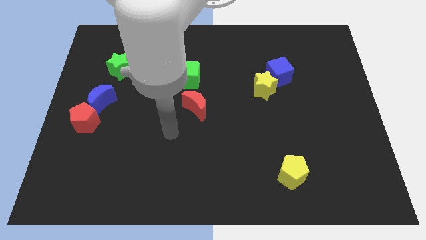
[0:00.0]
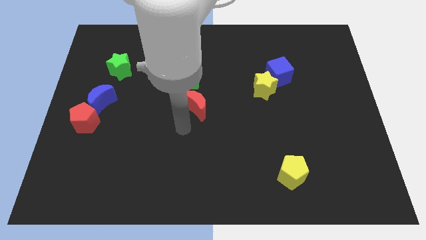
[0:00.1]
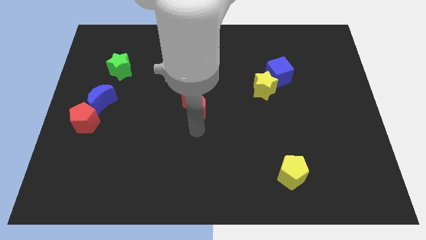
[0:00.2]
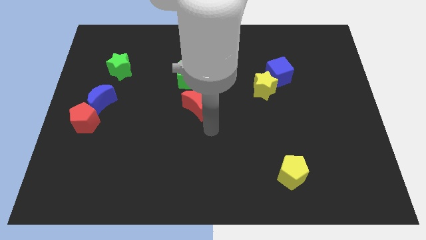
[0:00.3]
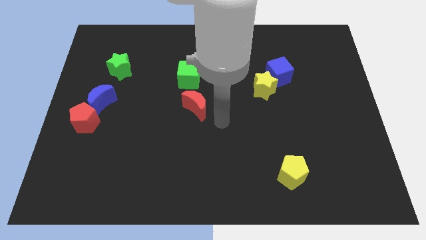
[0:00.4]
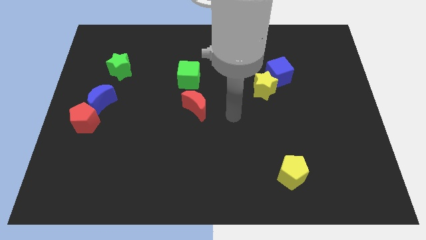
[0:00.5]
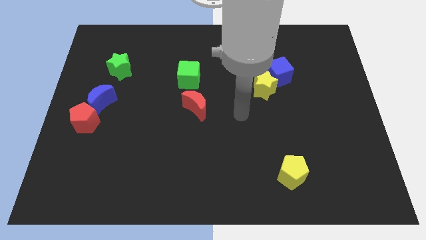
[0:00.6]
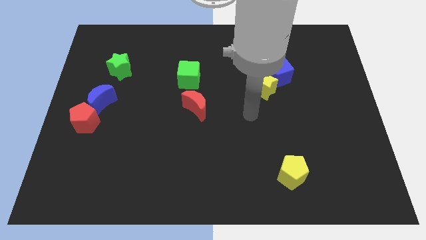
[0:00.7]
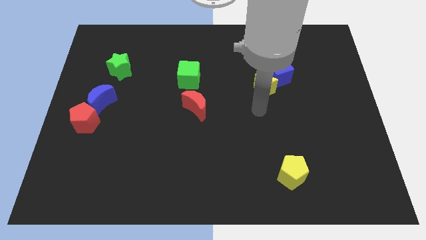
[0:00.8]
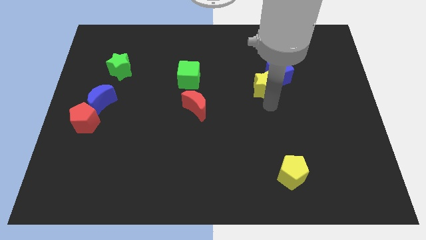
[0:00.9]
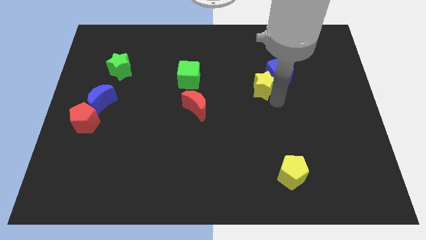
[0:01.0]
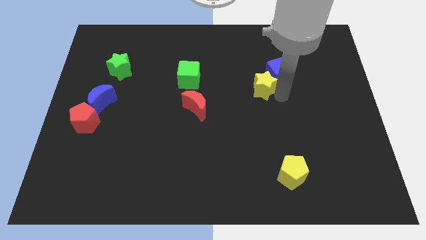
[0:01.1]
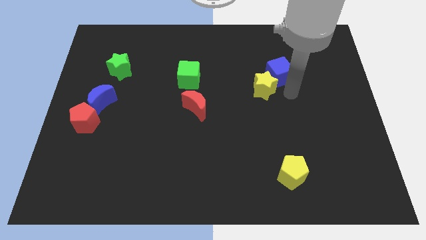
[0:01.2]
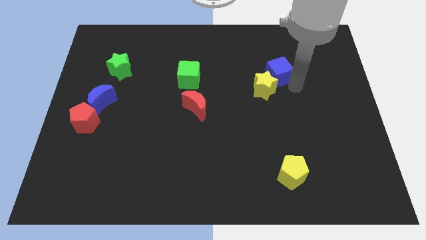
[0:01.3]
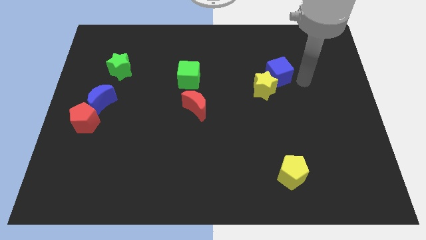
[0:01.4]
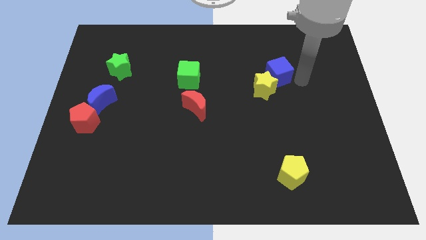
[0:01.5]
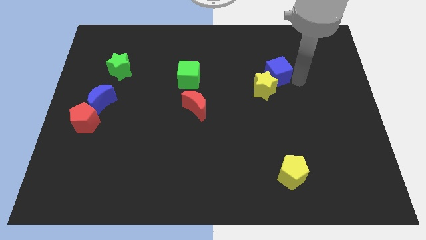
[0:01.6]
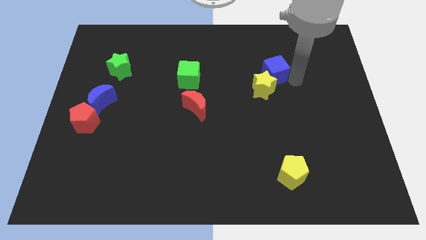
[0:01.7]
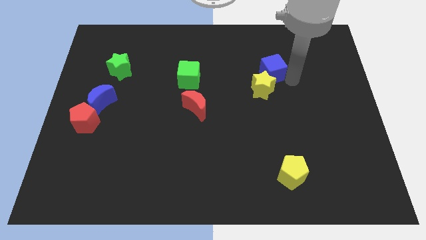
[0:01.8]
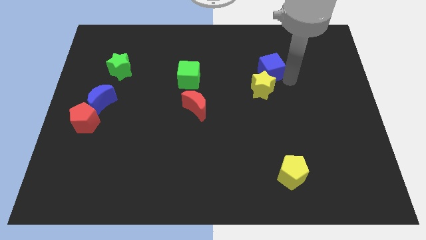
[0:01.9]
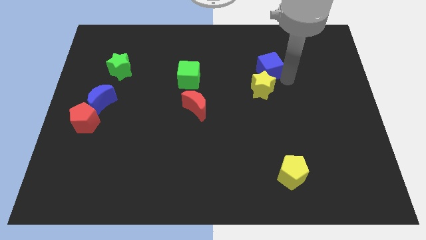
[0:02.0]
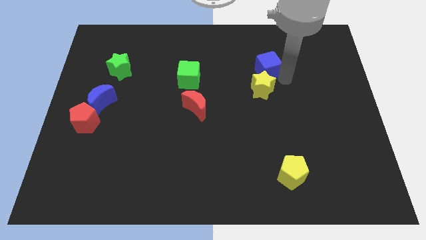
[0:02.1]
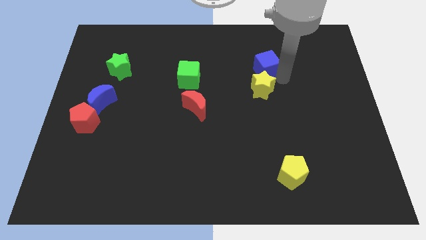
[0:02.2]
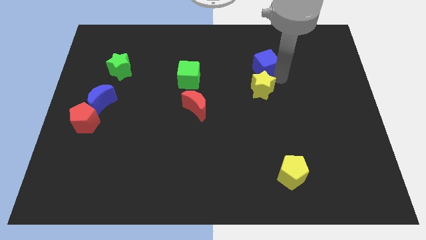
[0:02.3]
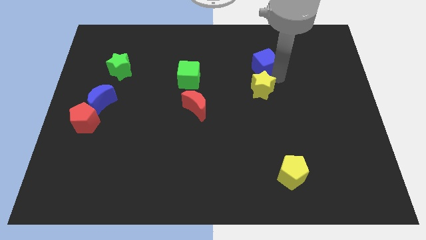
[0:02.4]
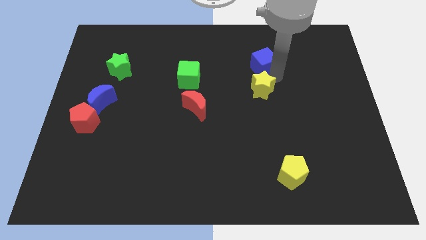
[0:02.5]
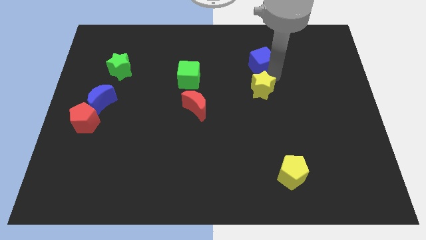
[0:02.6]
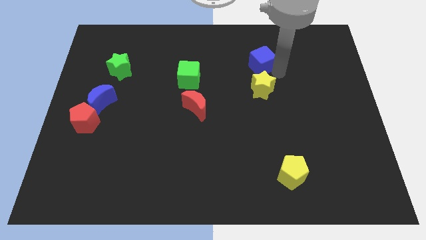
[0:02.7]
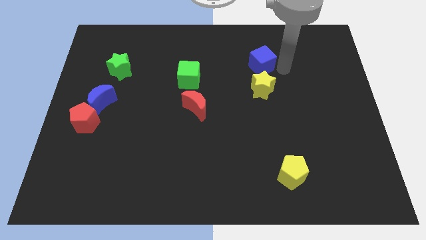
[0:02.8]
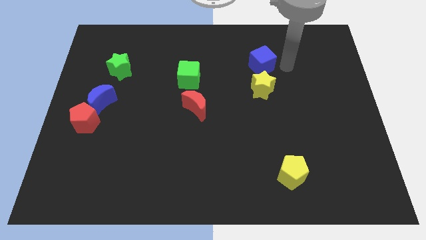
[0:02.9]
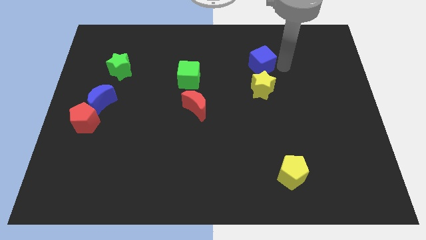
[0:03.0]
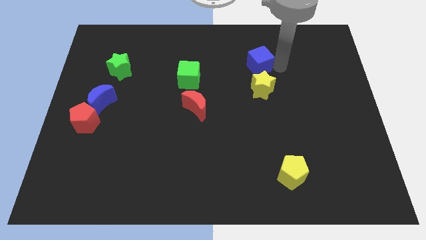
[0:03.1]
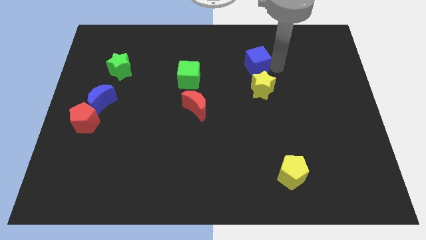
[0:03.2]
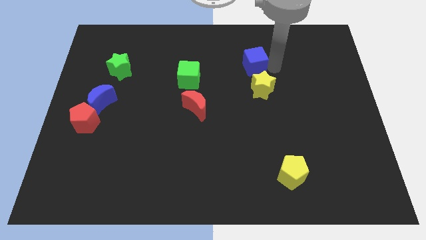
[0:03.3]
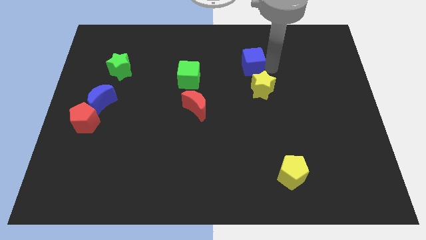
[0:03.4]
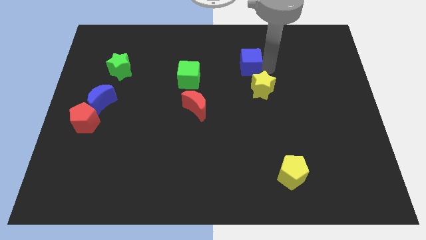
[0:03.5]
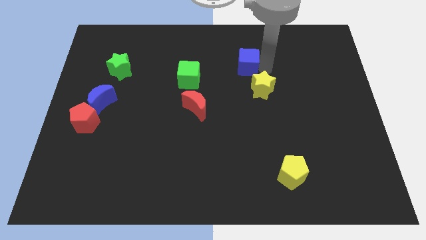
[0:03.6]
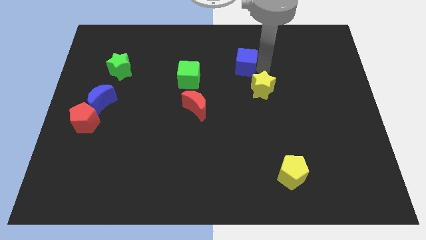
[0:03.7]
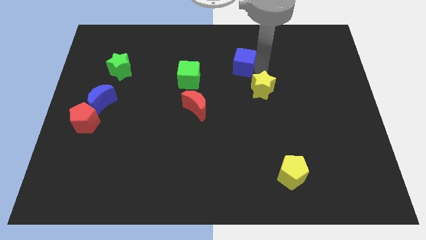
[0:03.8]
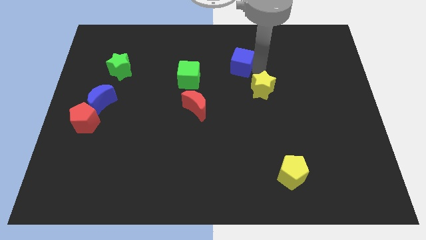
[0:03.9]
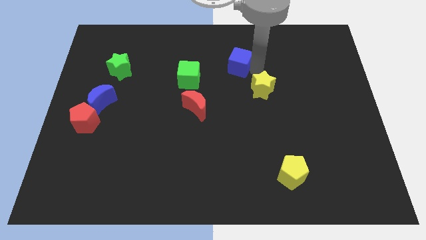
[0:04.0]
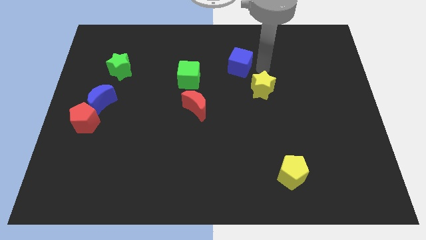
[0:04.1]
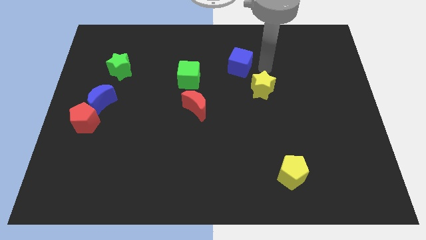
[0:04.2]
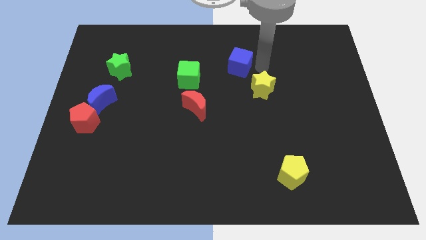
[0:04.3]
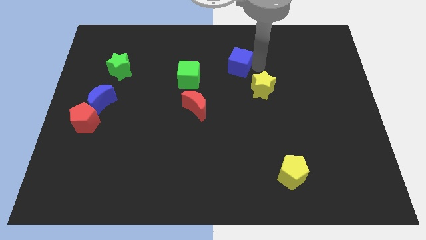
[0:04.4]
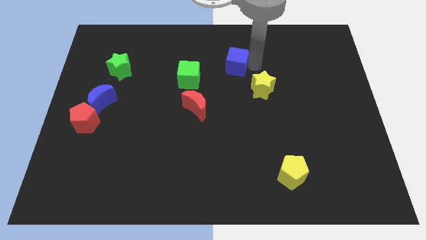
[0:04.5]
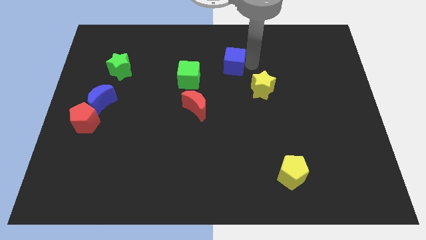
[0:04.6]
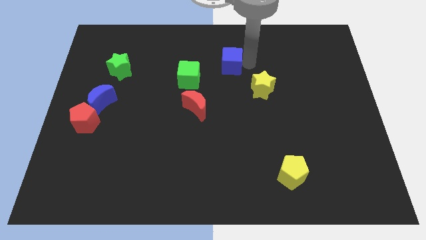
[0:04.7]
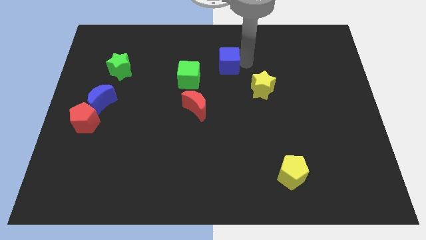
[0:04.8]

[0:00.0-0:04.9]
push the blue cube diagonally up and to the right of the green cube

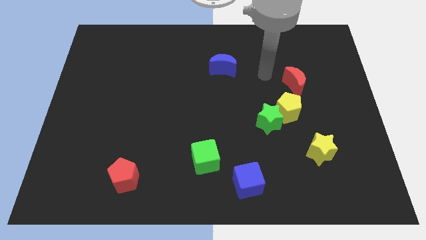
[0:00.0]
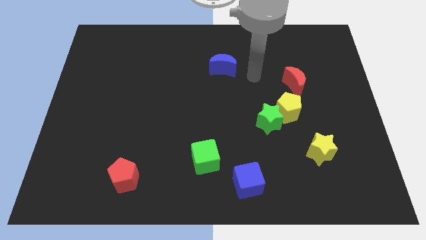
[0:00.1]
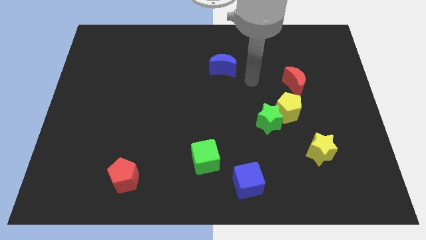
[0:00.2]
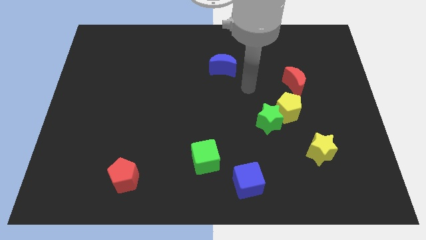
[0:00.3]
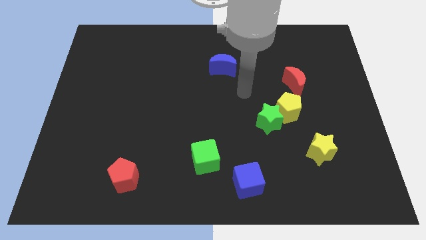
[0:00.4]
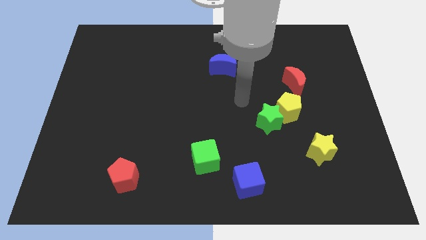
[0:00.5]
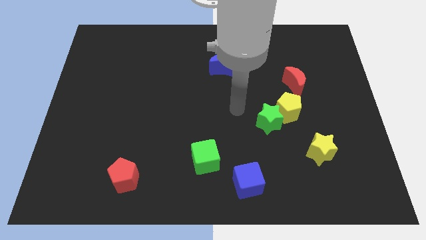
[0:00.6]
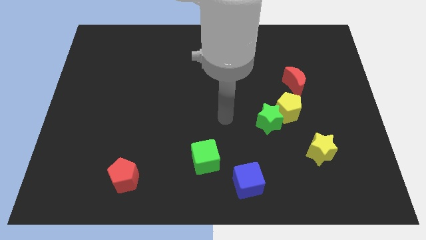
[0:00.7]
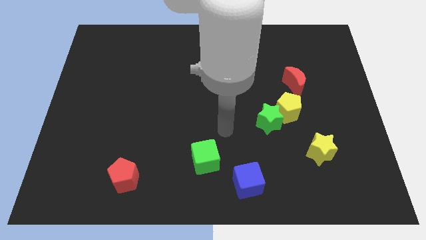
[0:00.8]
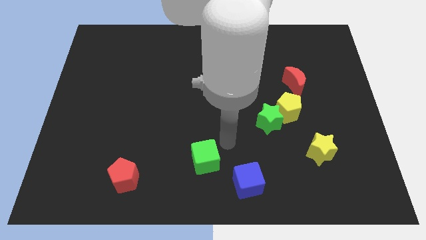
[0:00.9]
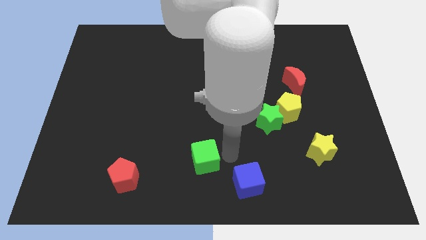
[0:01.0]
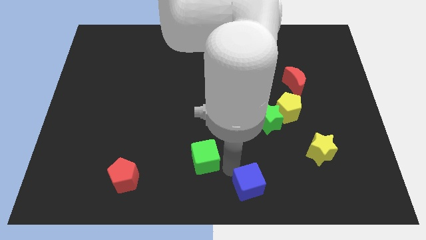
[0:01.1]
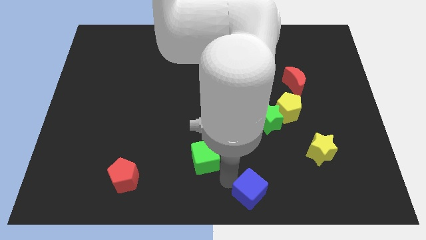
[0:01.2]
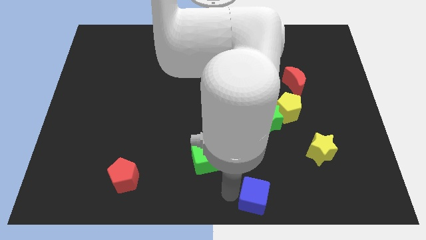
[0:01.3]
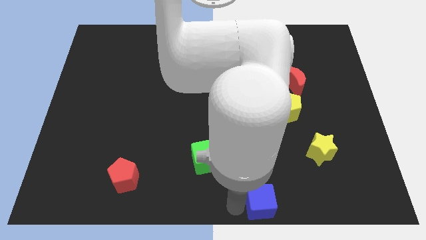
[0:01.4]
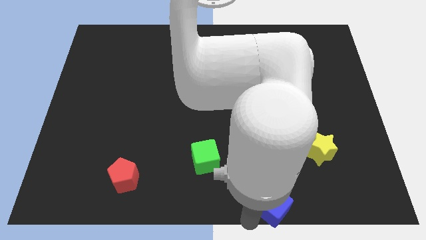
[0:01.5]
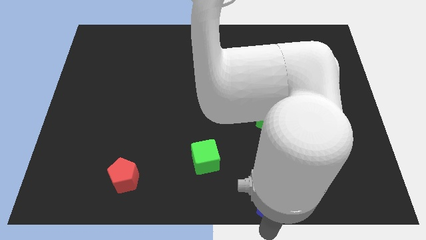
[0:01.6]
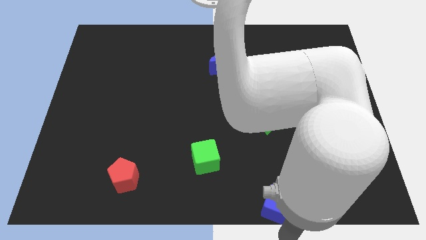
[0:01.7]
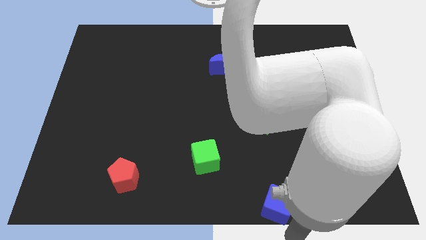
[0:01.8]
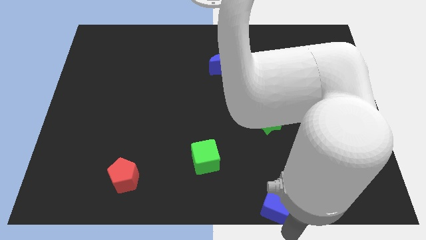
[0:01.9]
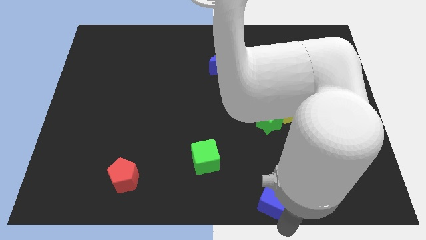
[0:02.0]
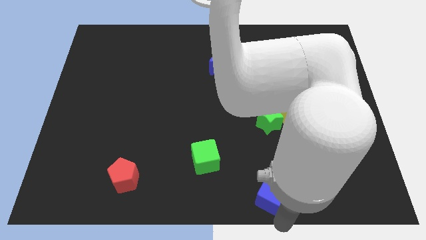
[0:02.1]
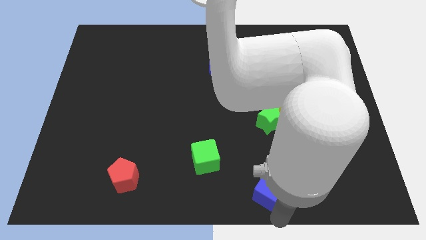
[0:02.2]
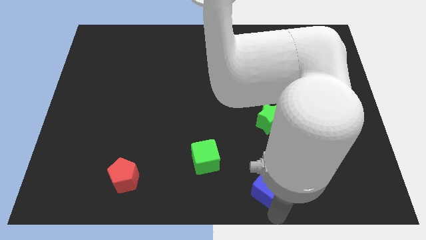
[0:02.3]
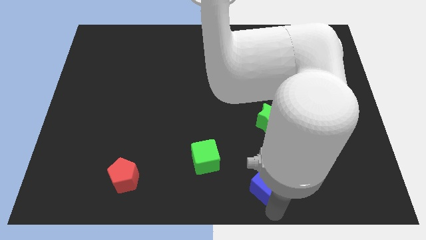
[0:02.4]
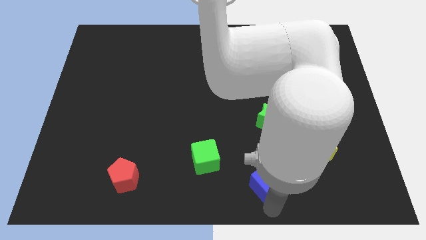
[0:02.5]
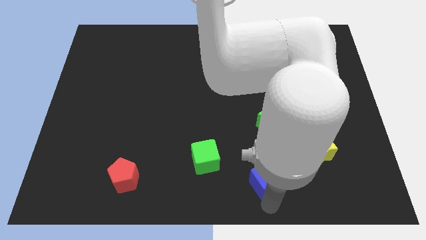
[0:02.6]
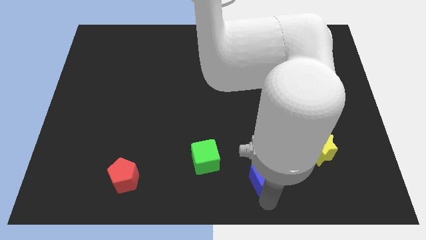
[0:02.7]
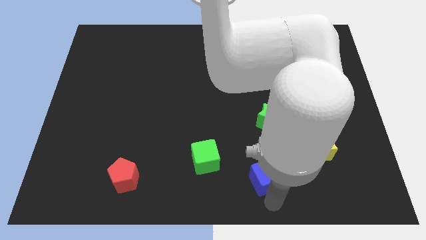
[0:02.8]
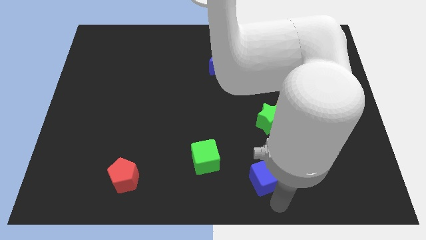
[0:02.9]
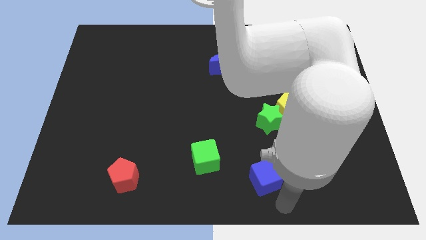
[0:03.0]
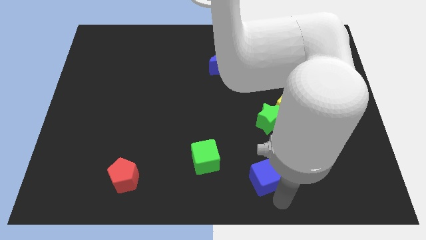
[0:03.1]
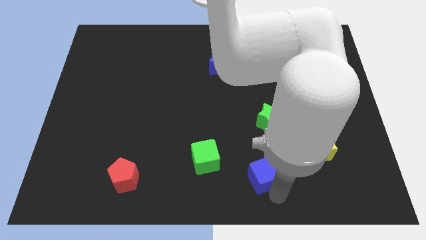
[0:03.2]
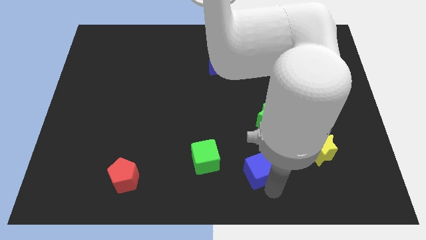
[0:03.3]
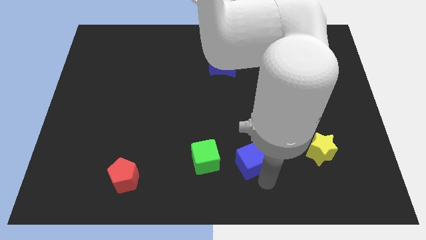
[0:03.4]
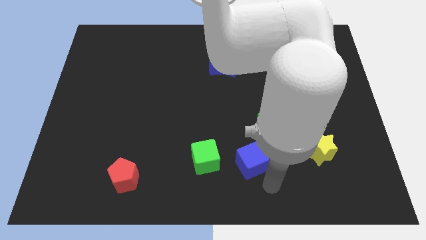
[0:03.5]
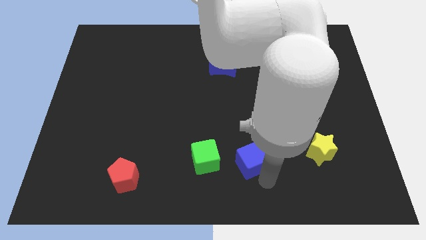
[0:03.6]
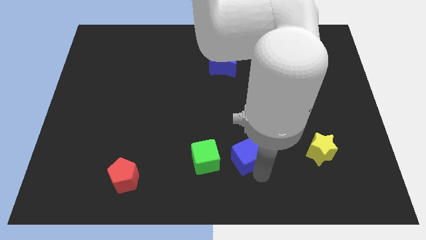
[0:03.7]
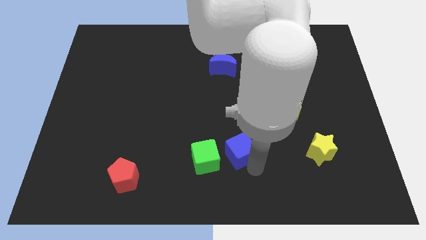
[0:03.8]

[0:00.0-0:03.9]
put the blue cube to the top right side of the green cube
